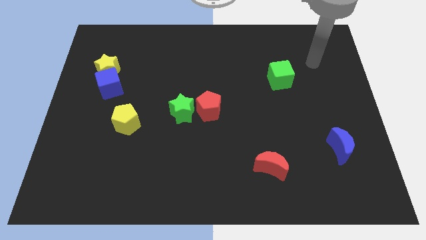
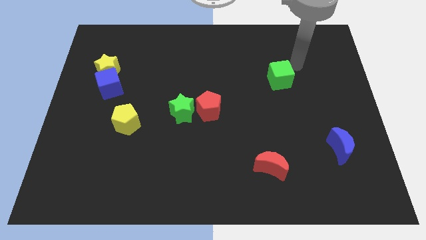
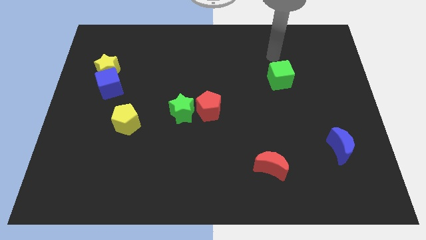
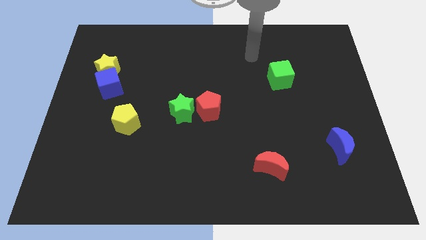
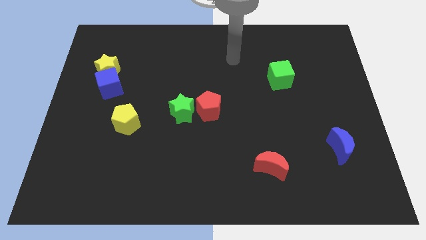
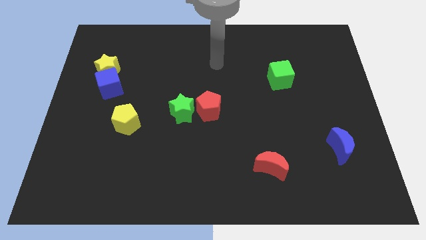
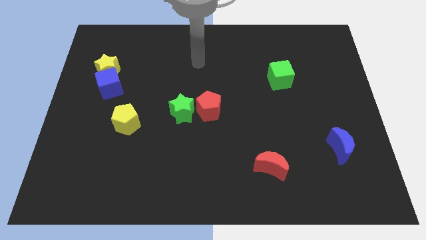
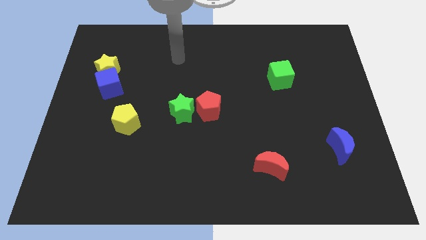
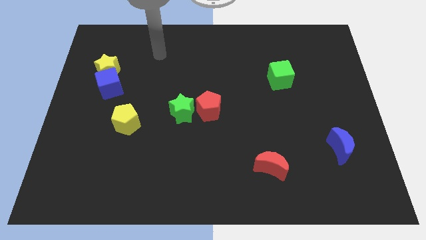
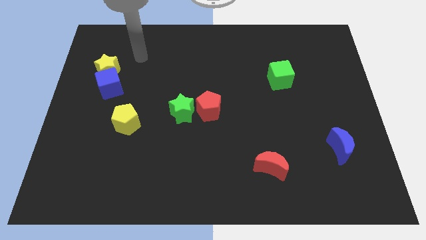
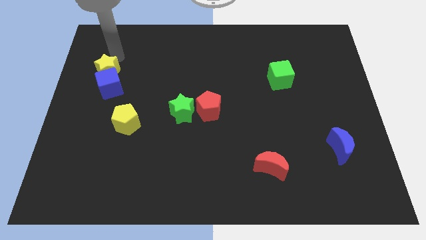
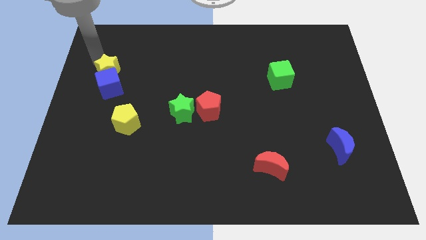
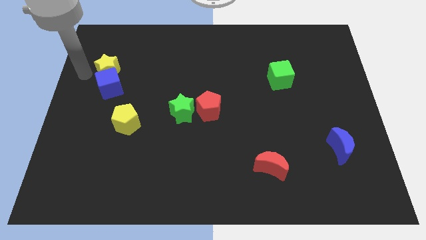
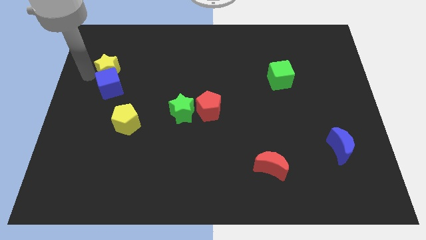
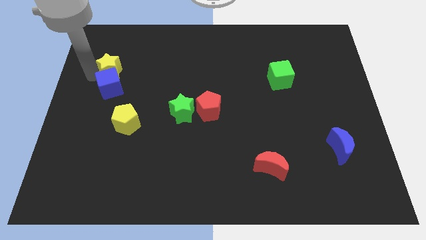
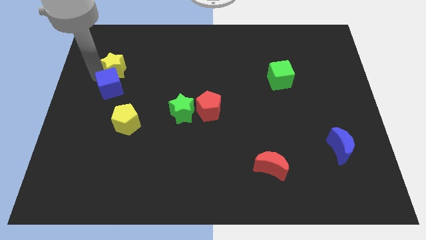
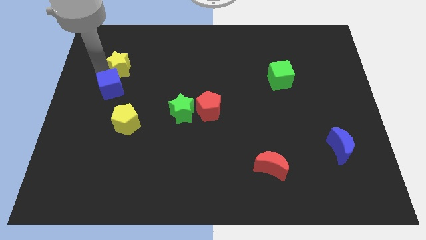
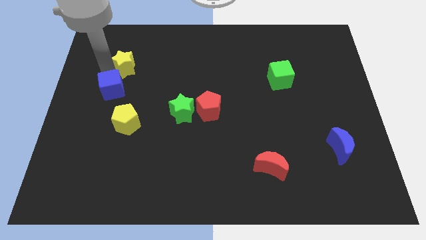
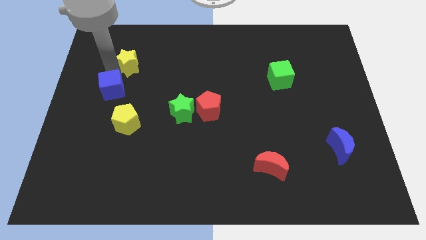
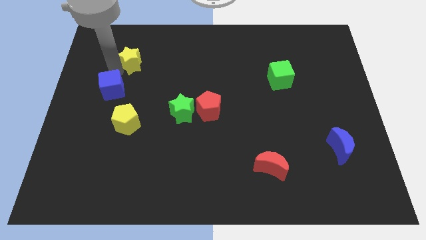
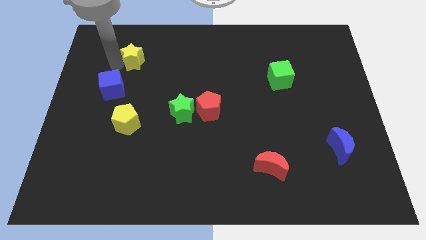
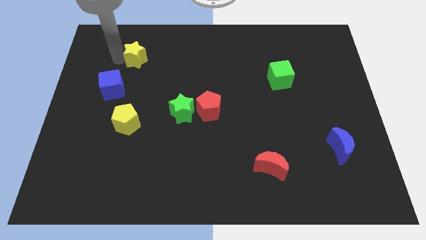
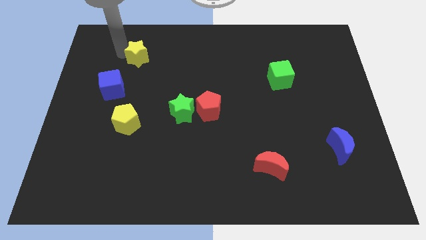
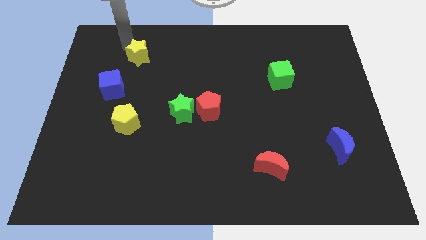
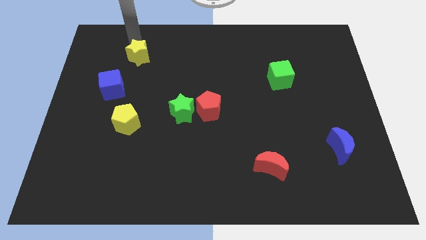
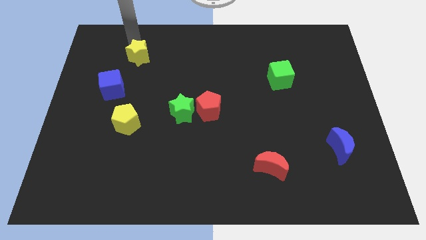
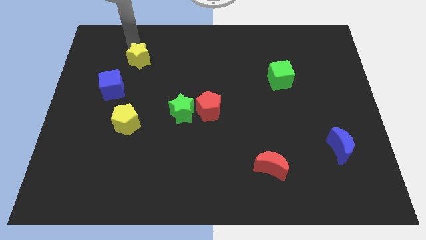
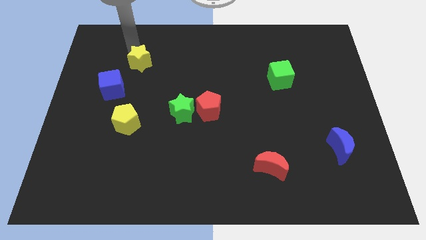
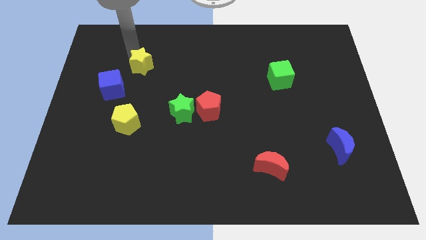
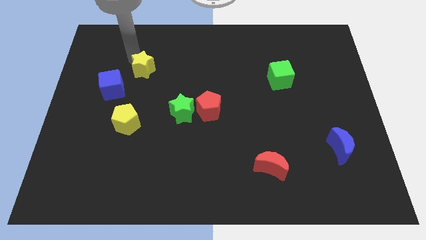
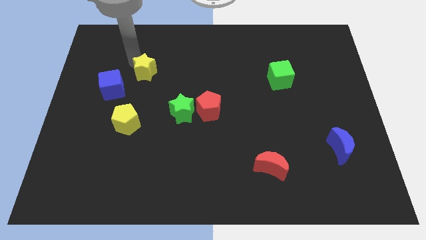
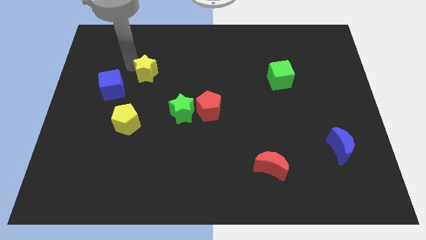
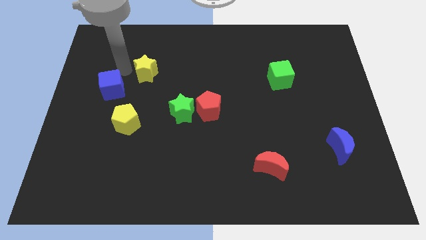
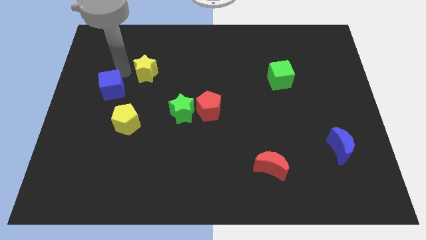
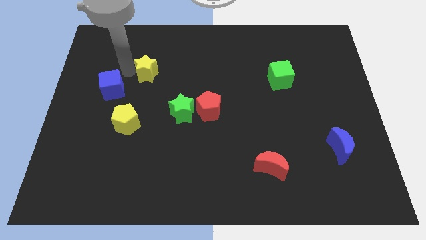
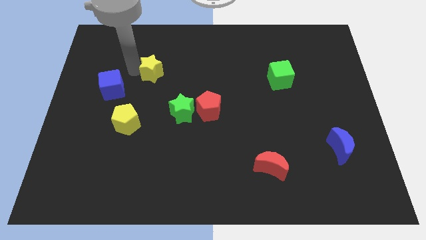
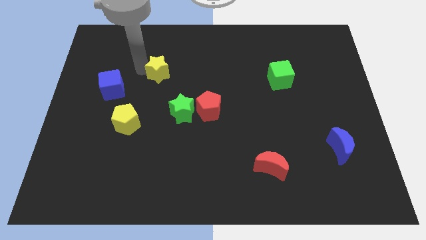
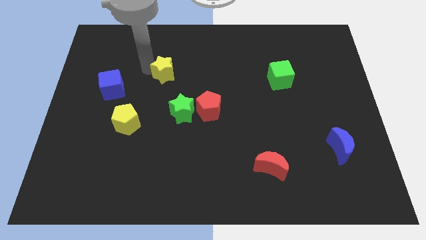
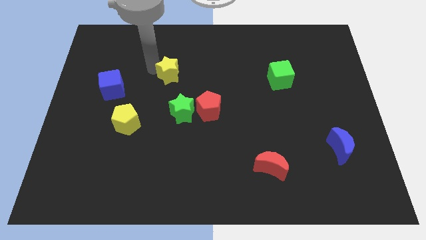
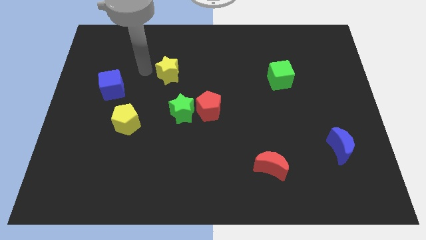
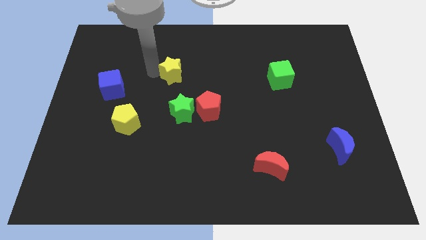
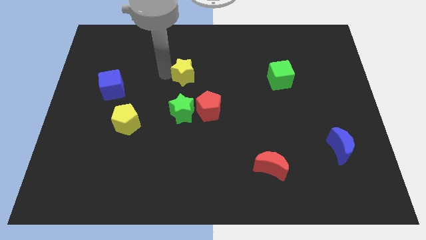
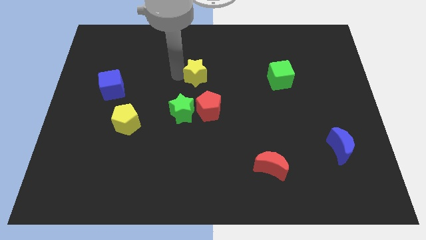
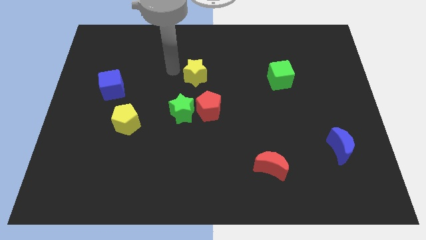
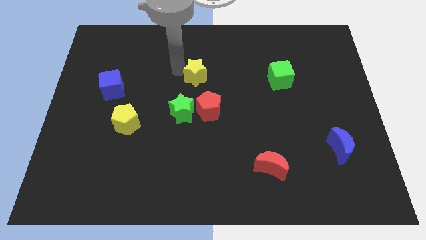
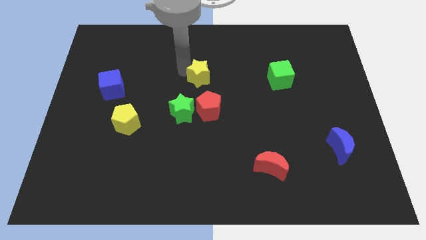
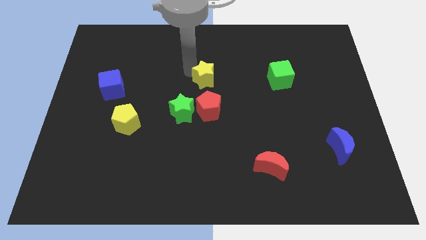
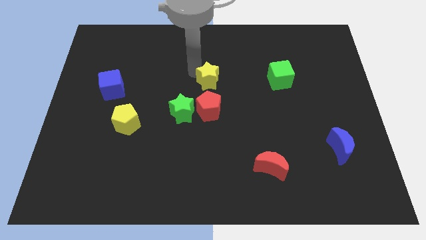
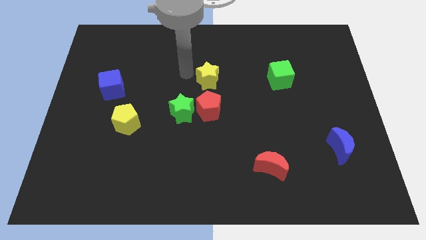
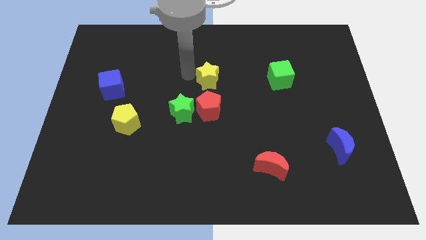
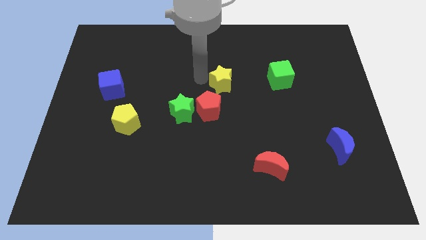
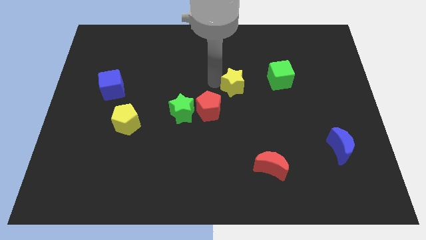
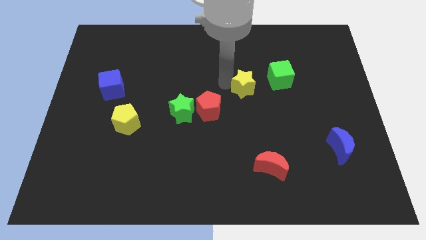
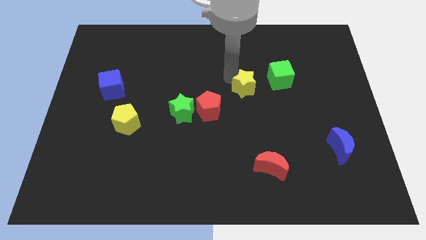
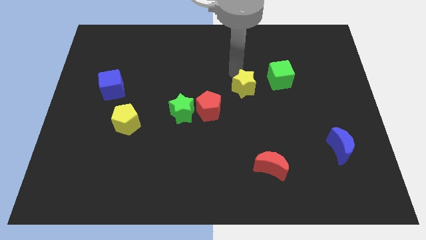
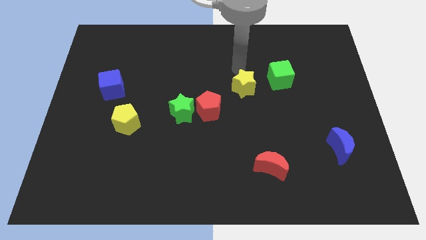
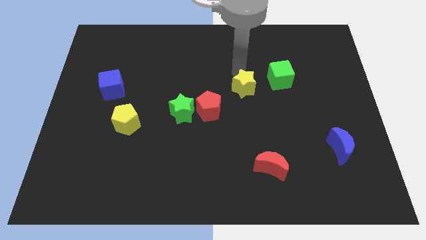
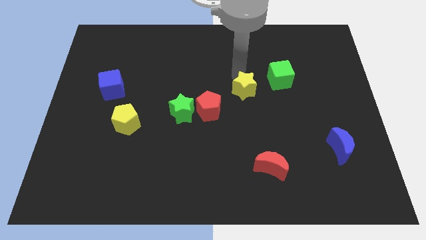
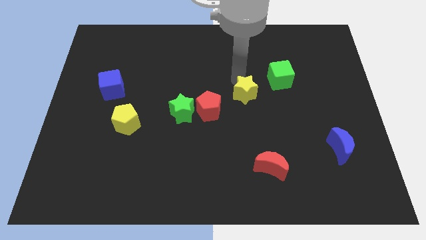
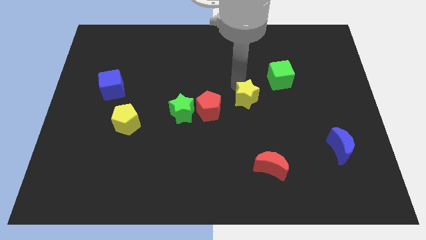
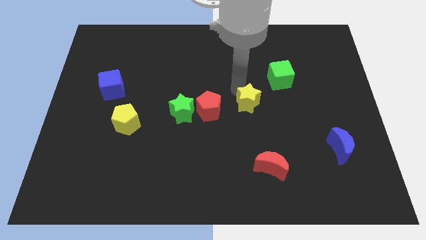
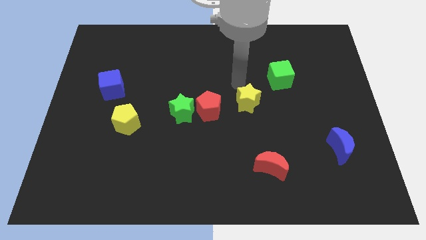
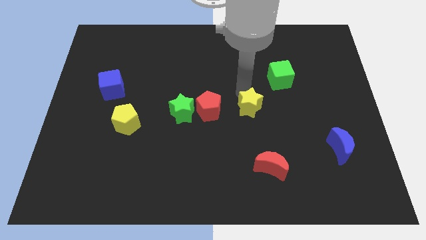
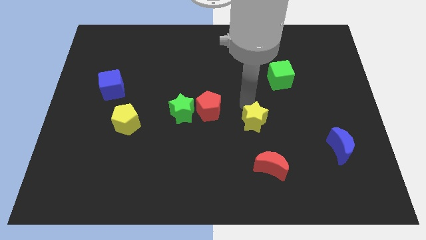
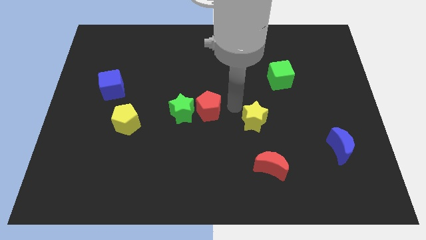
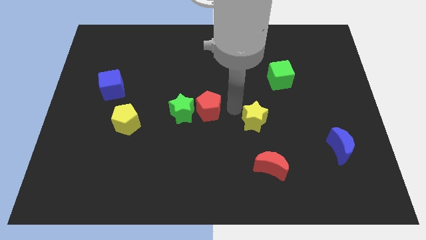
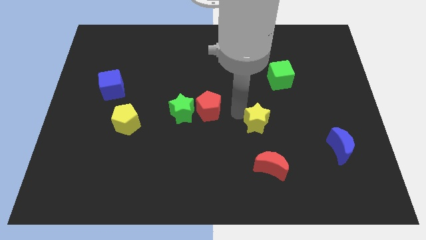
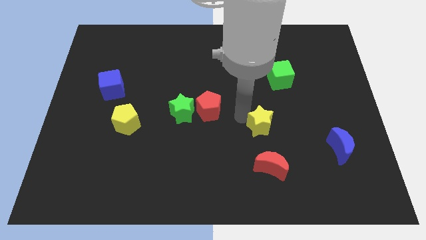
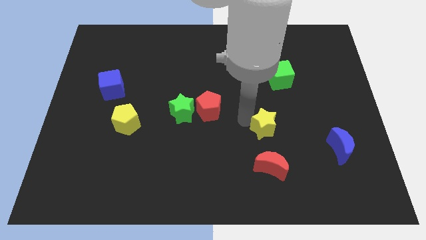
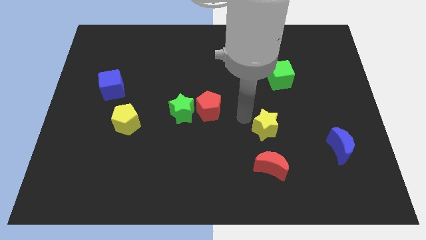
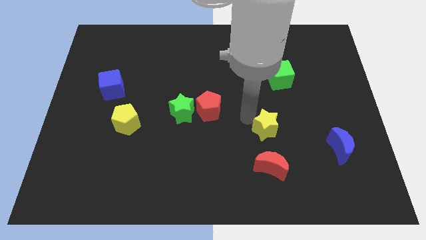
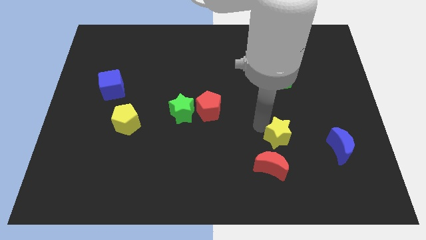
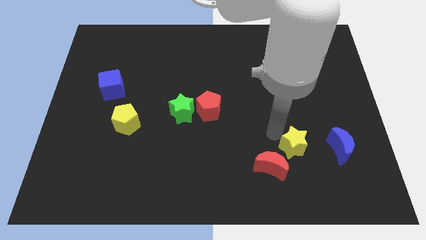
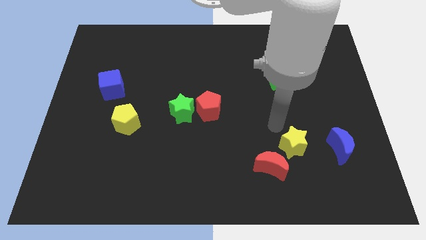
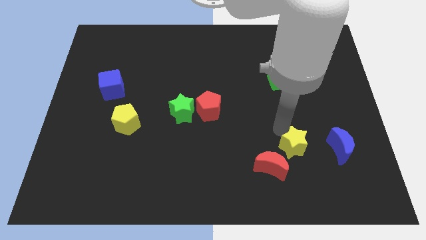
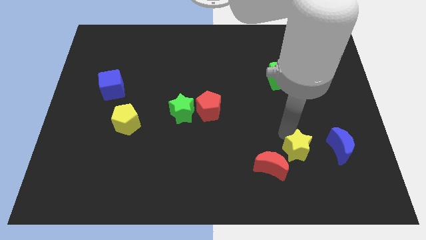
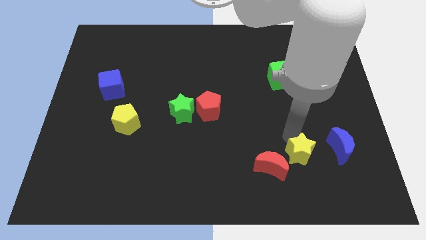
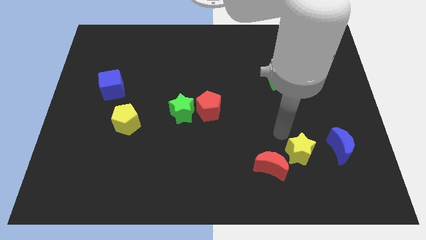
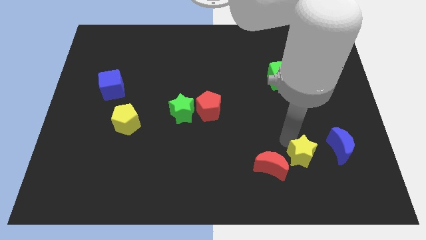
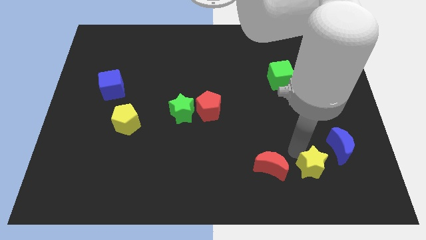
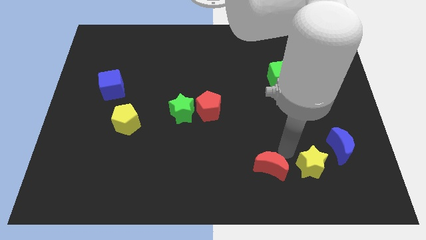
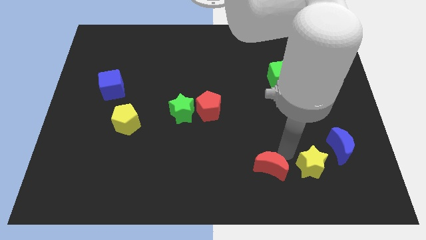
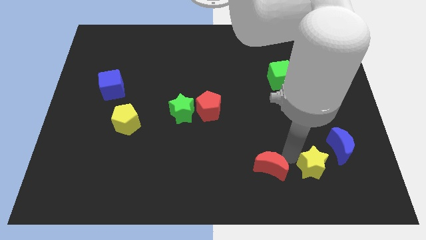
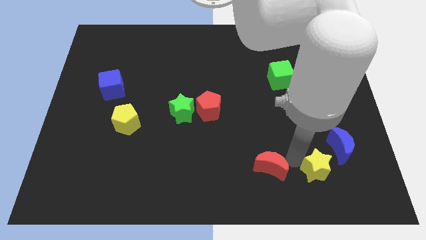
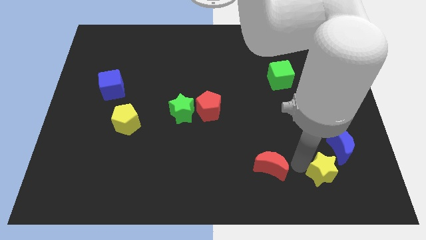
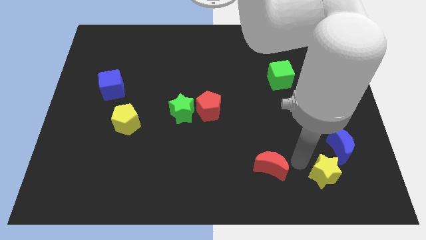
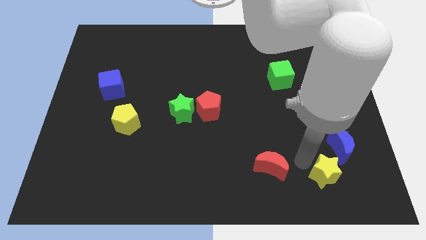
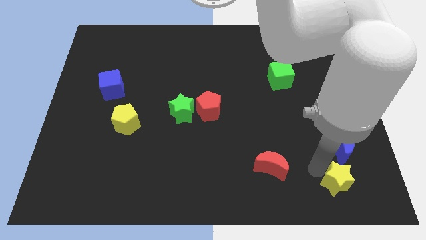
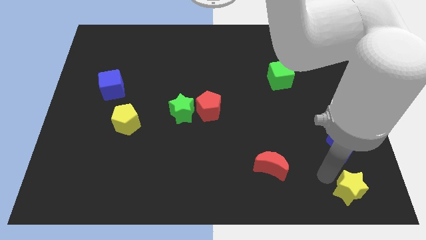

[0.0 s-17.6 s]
put the yellow star to the bottom right of the board
